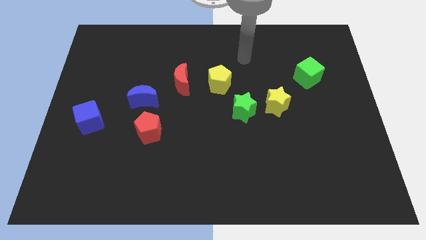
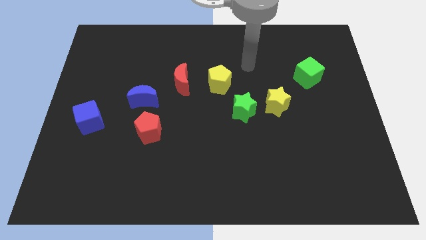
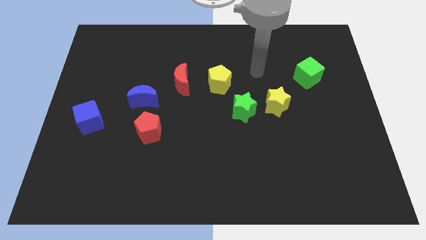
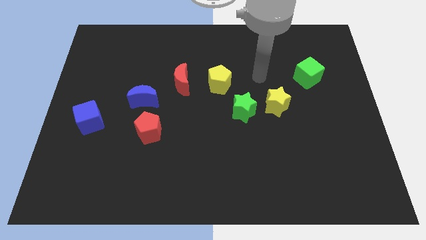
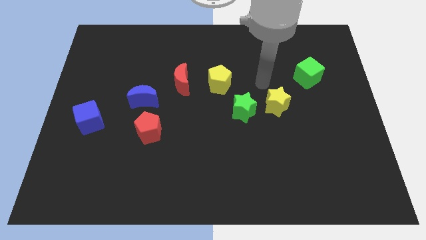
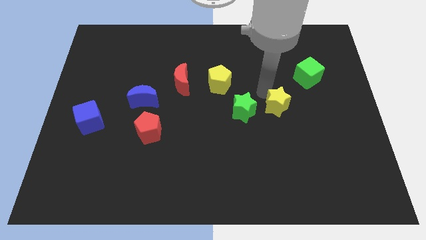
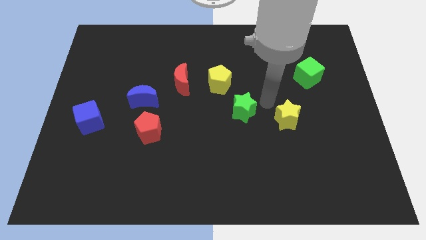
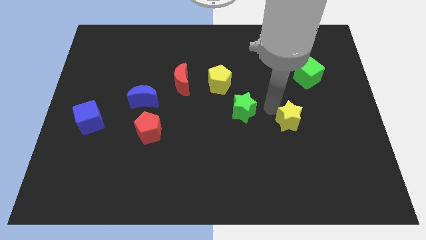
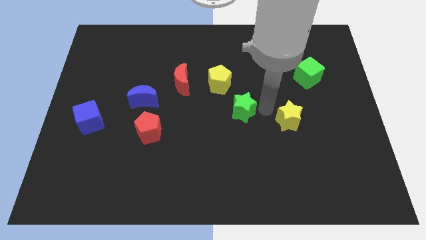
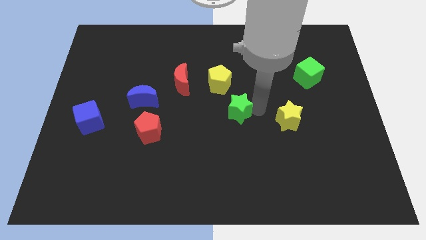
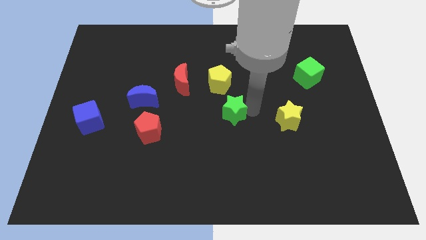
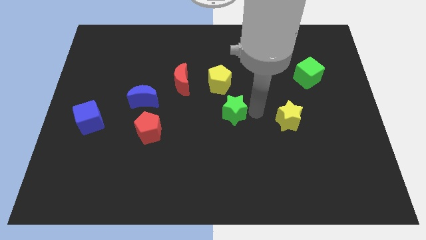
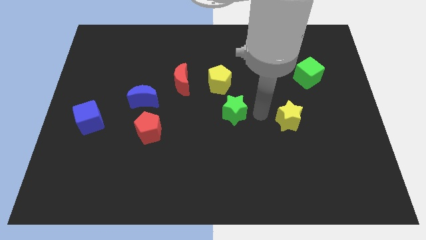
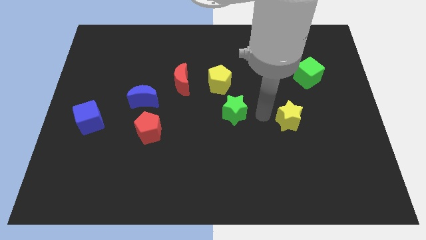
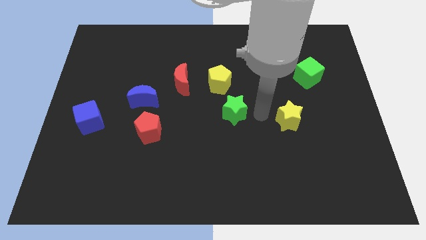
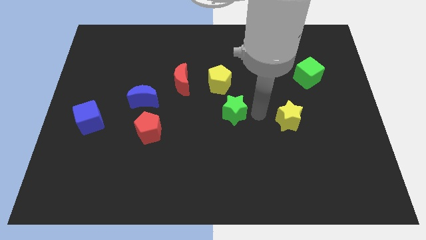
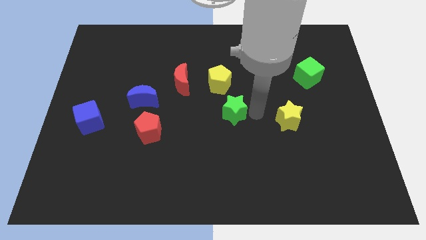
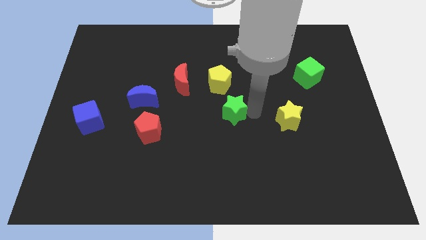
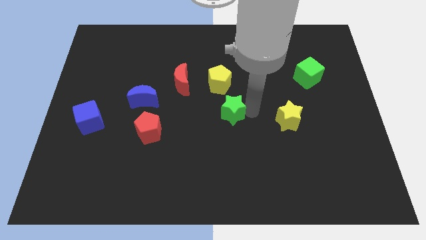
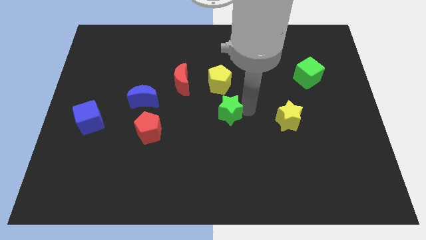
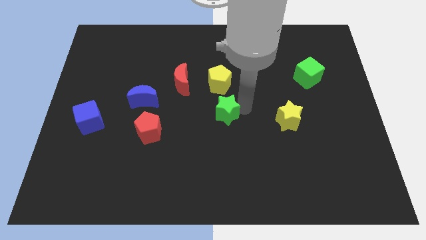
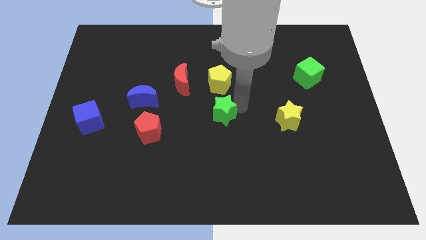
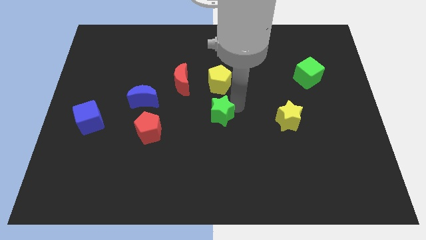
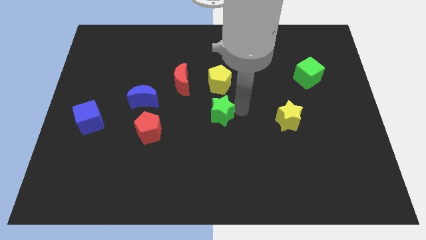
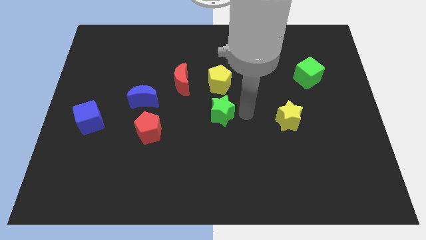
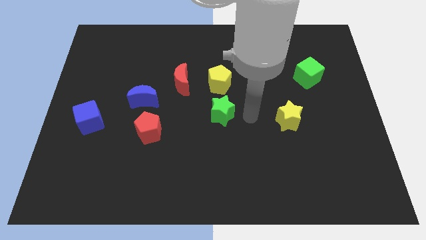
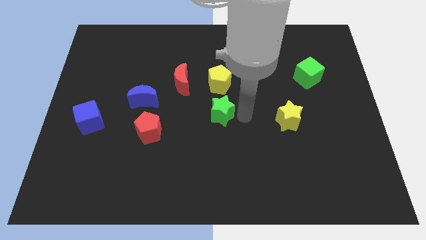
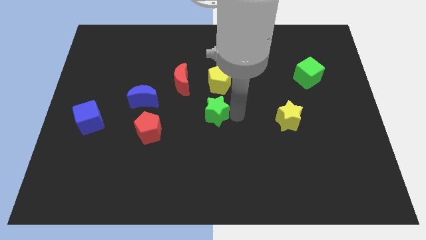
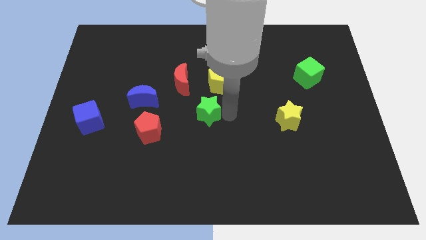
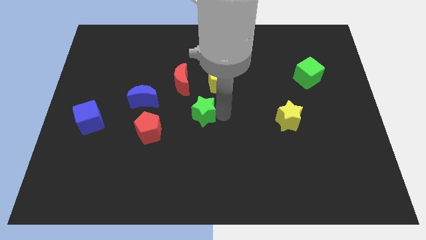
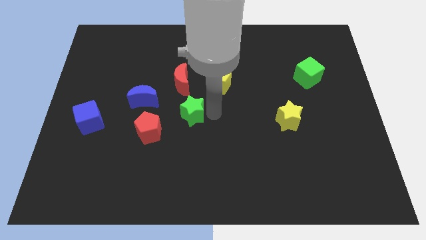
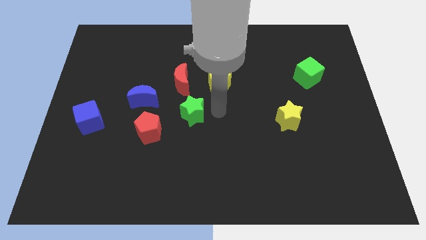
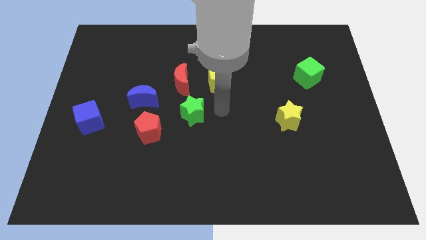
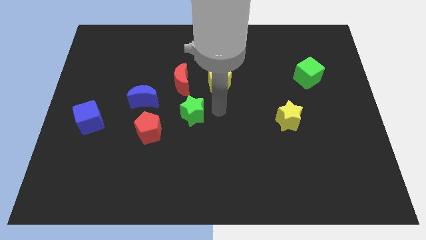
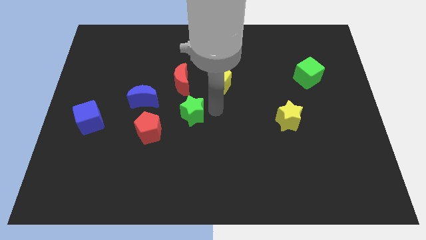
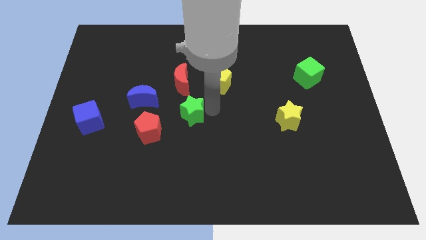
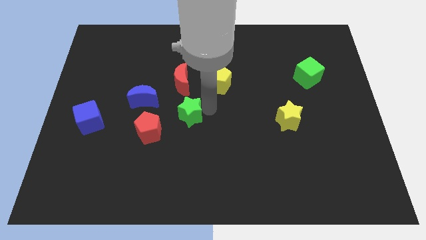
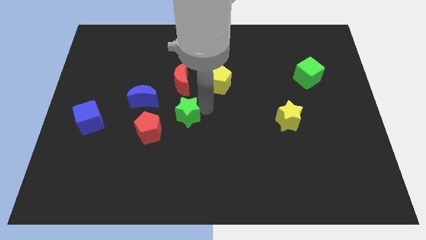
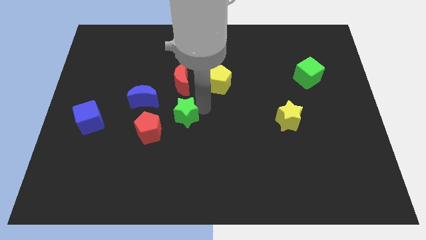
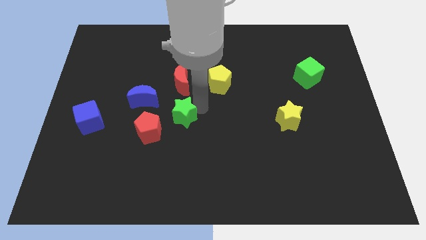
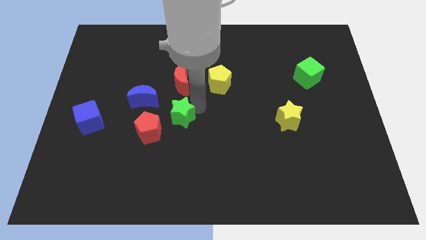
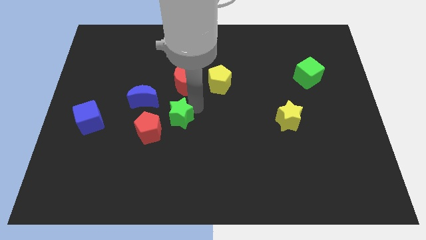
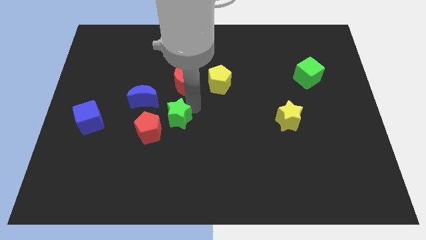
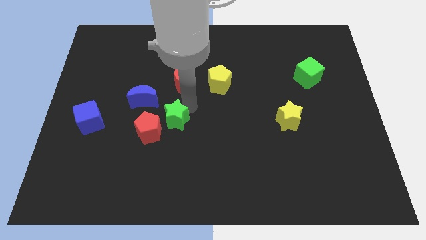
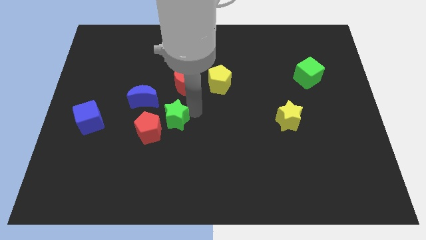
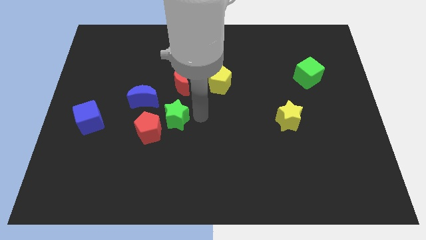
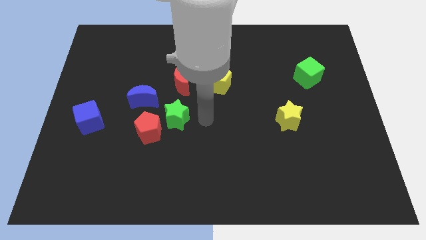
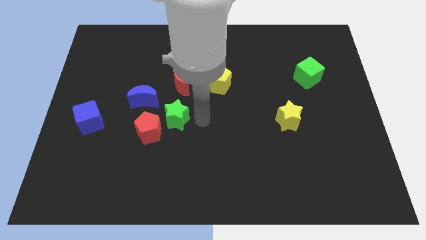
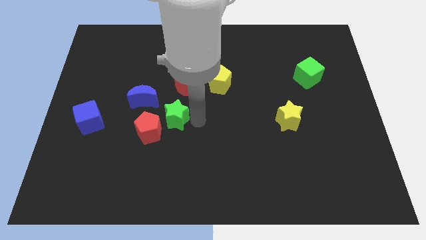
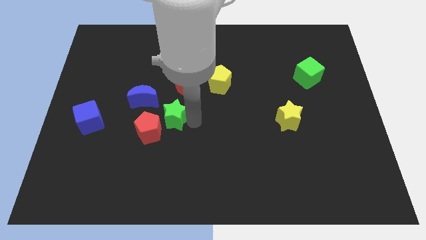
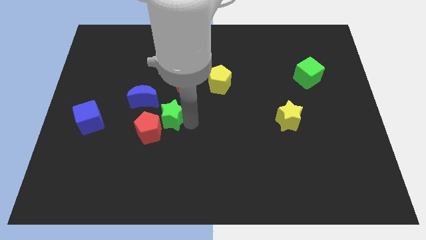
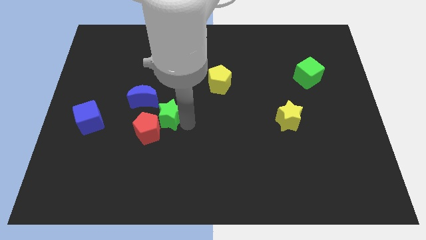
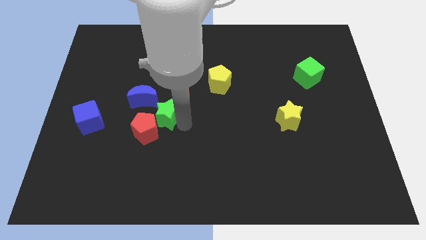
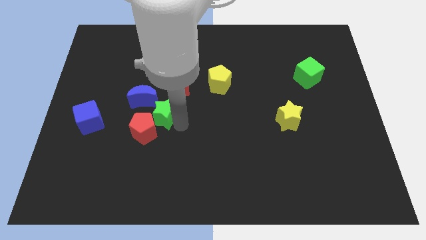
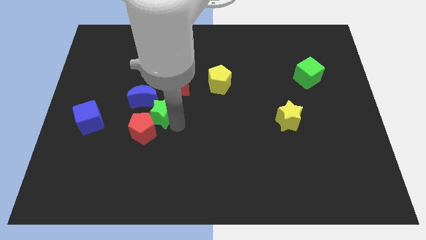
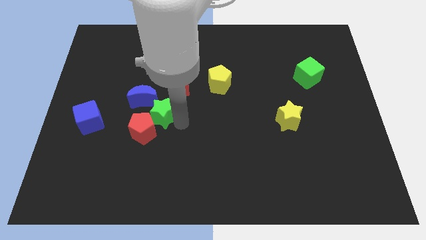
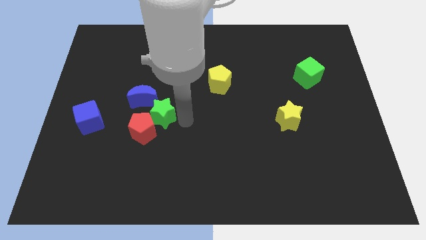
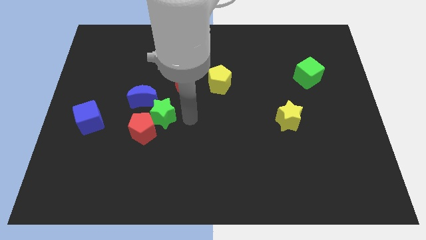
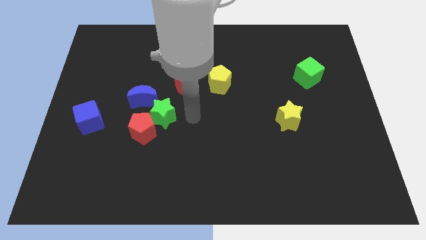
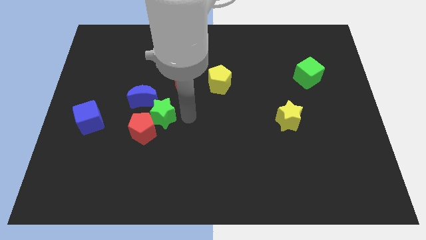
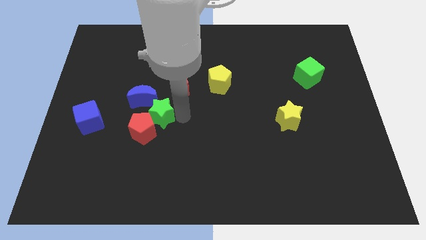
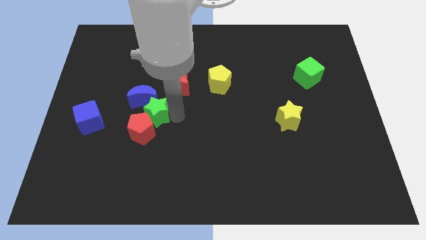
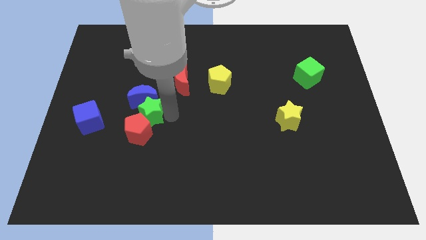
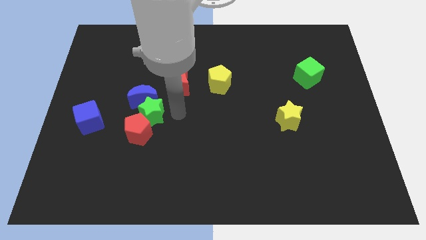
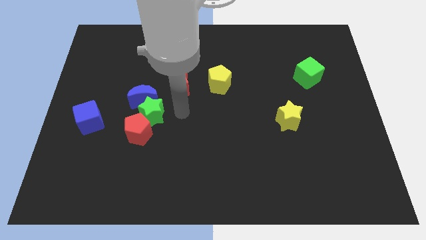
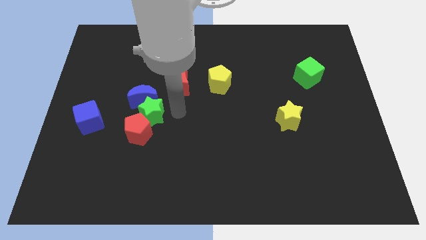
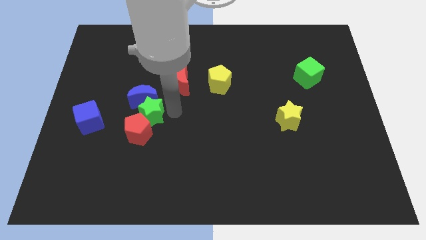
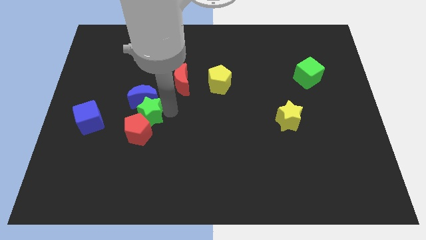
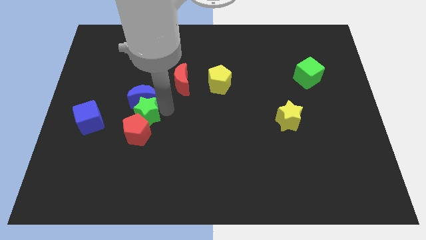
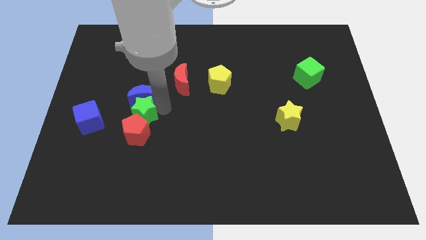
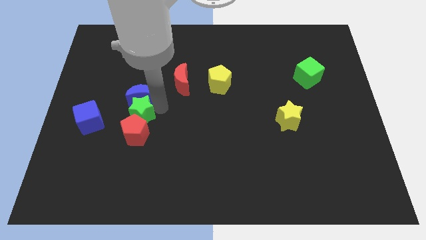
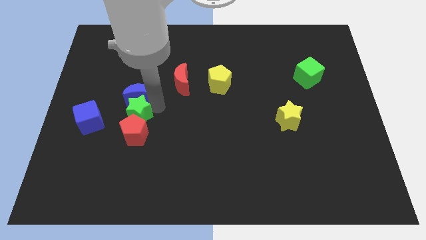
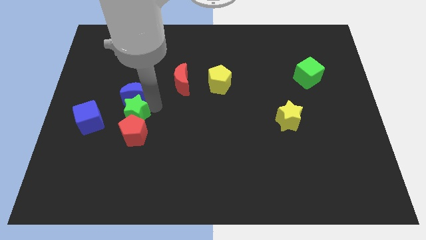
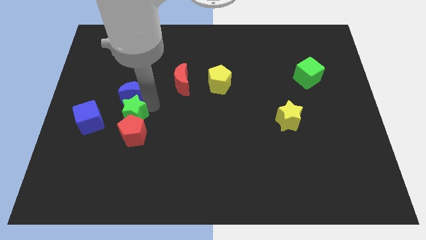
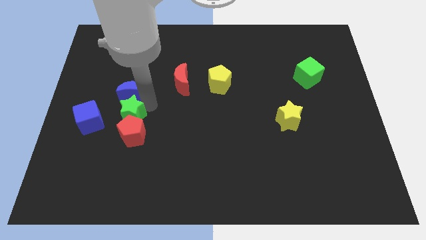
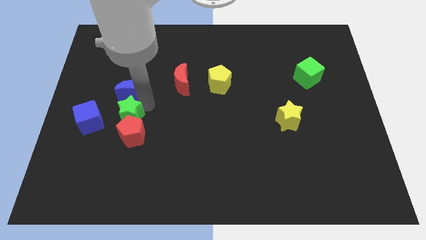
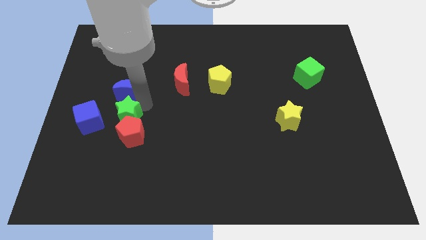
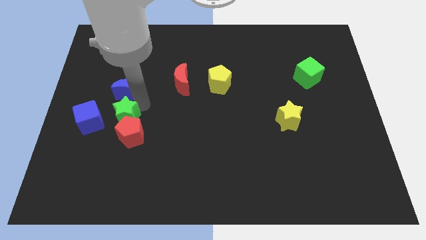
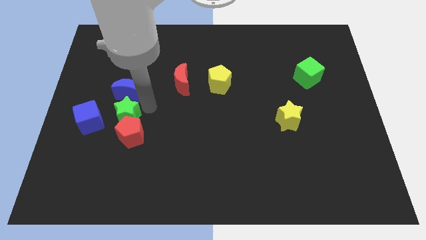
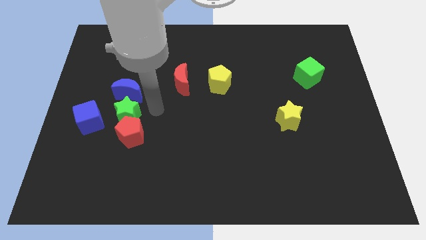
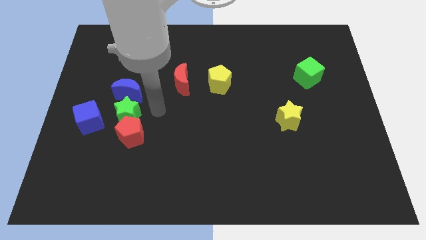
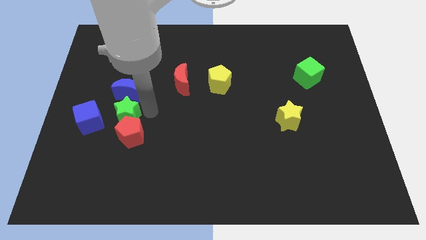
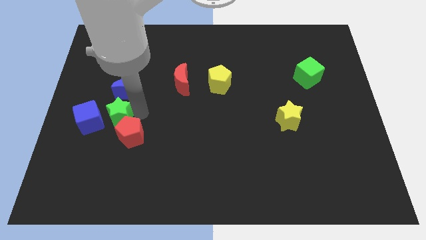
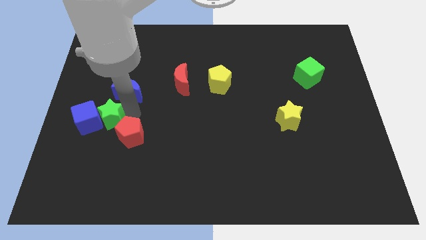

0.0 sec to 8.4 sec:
slide the green star close to the blue cube

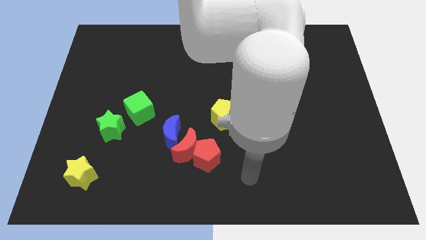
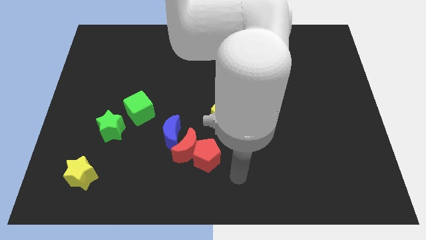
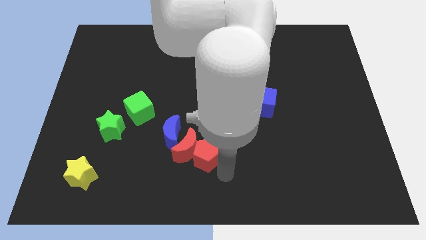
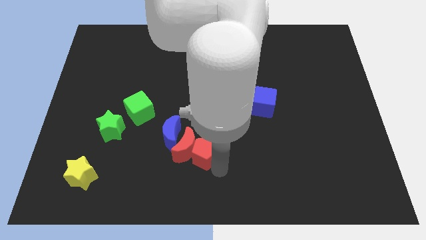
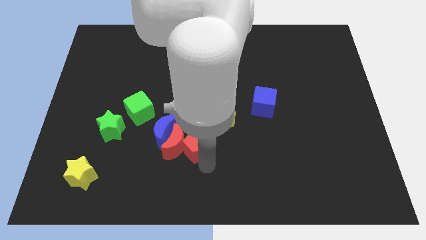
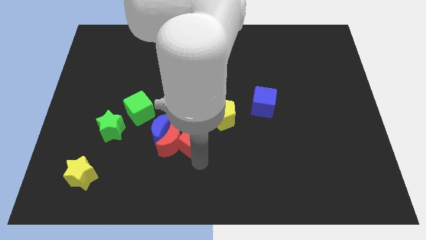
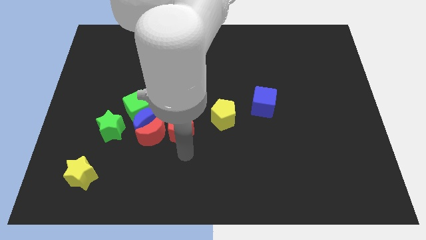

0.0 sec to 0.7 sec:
push the blue moon to the green cube
